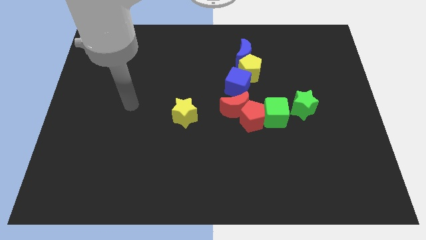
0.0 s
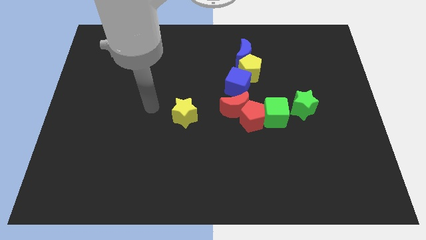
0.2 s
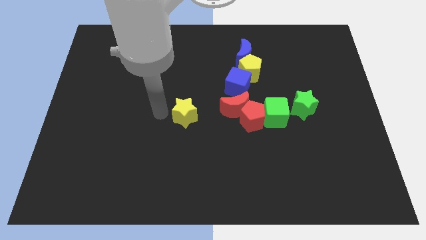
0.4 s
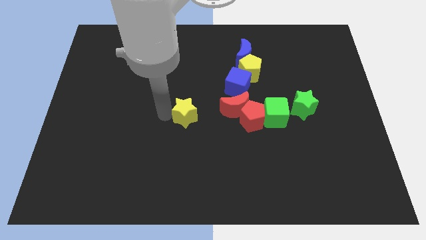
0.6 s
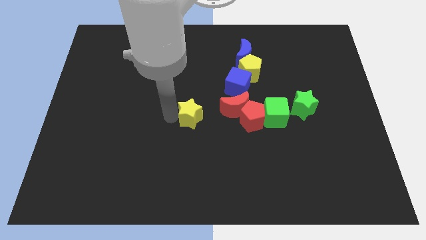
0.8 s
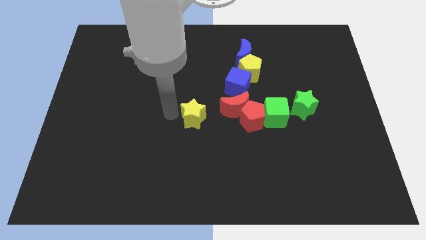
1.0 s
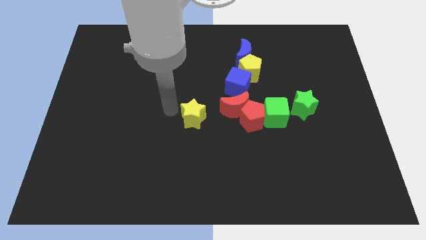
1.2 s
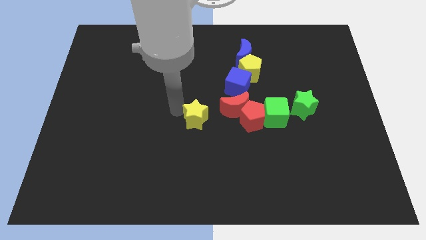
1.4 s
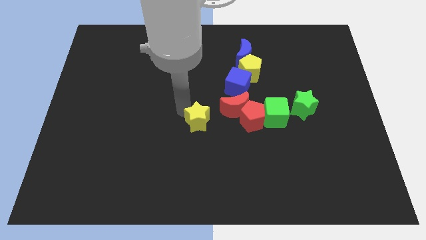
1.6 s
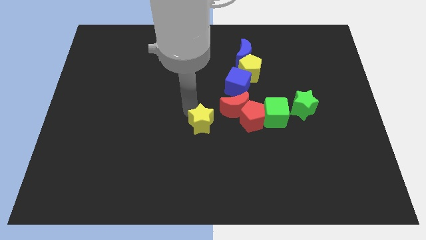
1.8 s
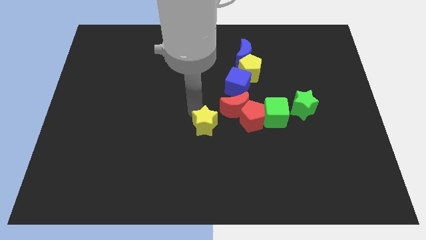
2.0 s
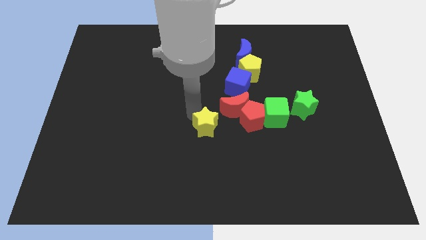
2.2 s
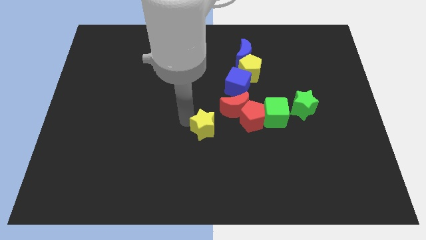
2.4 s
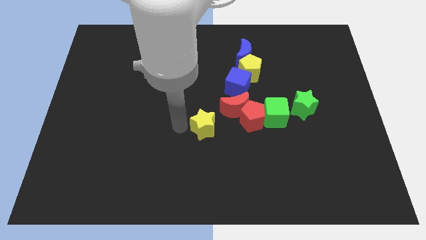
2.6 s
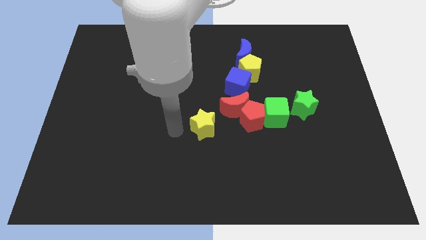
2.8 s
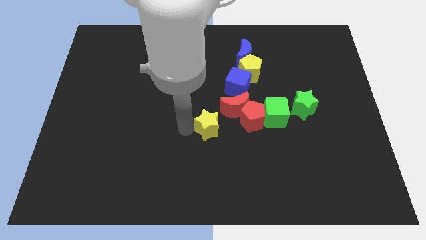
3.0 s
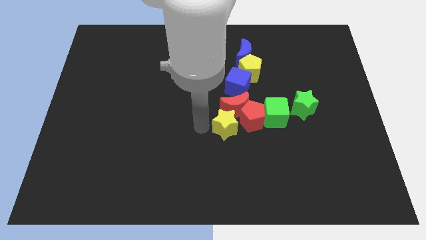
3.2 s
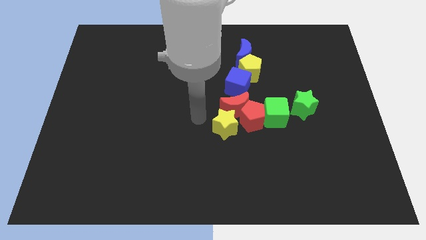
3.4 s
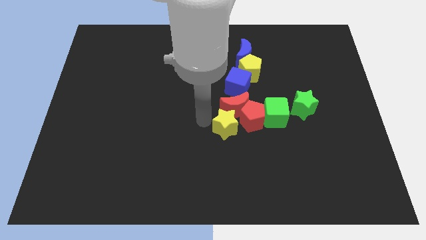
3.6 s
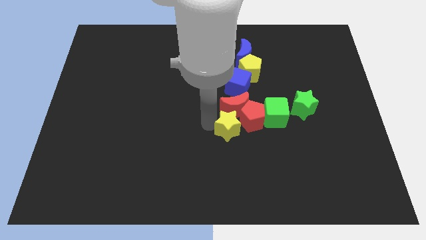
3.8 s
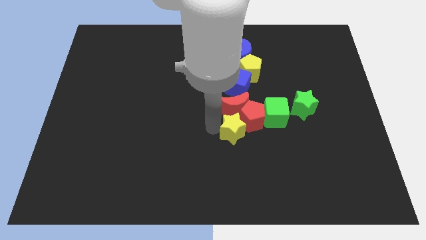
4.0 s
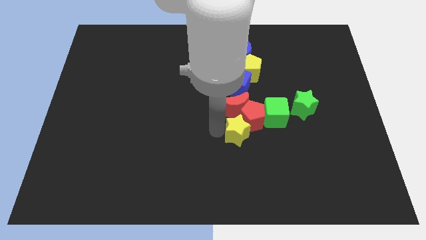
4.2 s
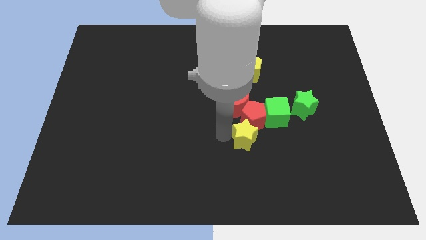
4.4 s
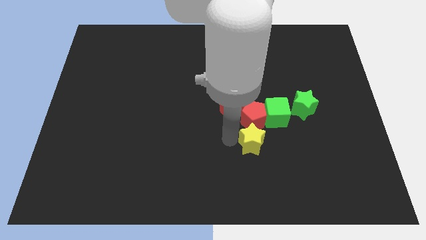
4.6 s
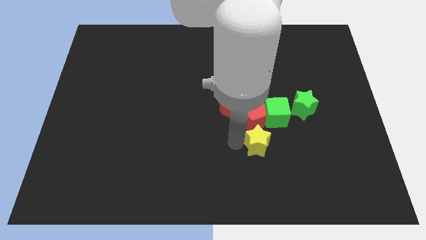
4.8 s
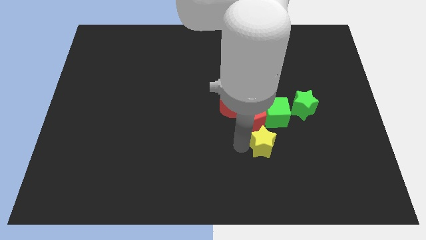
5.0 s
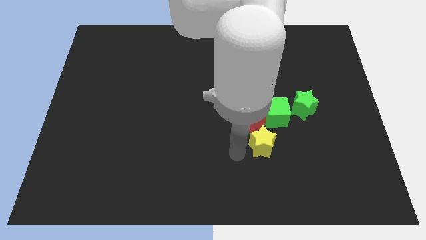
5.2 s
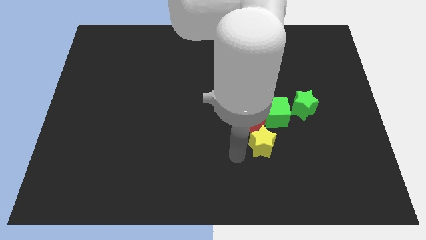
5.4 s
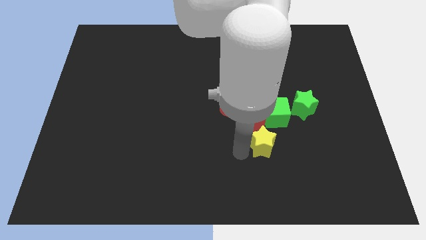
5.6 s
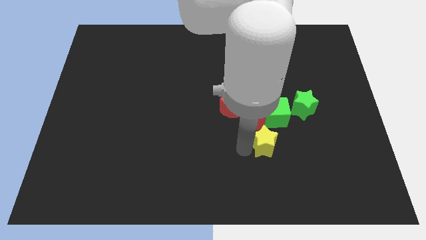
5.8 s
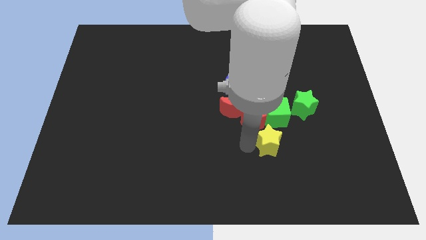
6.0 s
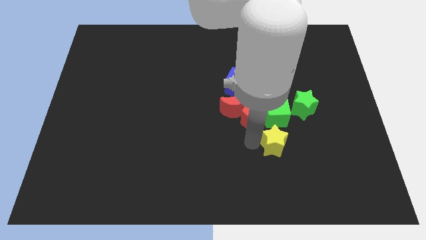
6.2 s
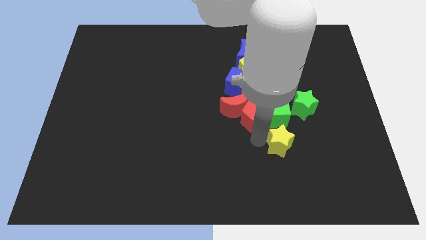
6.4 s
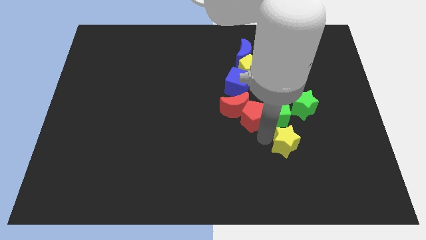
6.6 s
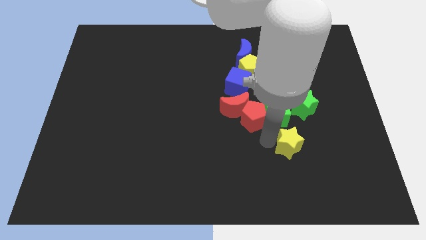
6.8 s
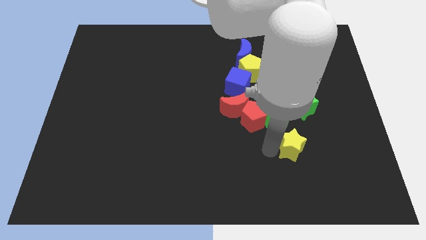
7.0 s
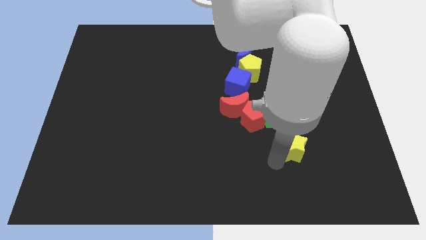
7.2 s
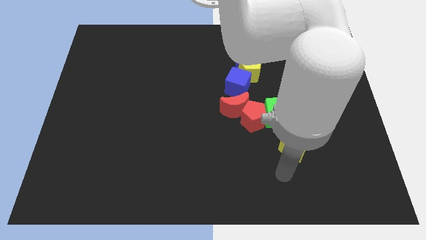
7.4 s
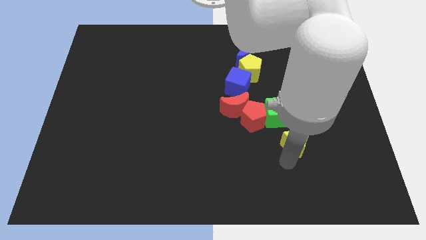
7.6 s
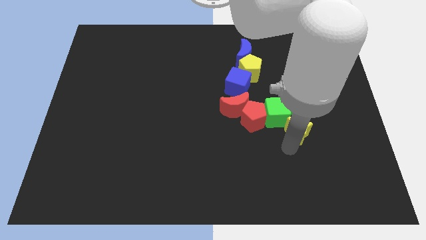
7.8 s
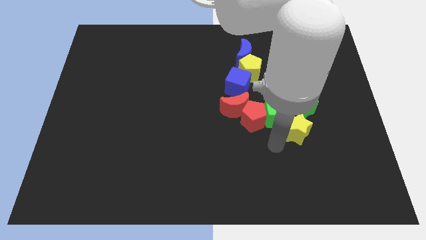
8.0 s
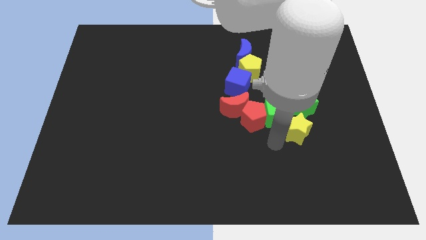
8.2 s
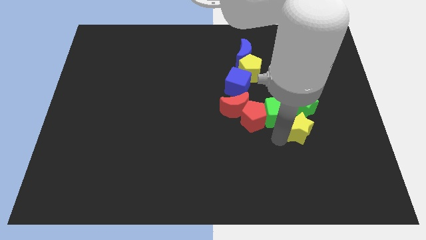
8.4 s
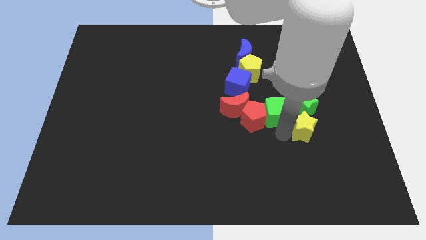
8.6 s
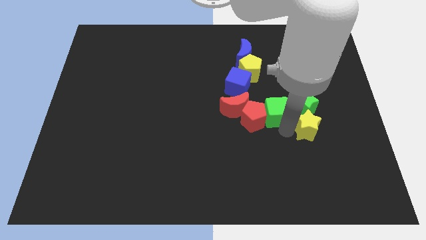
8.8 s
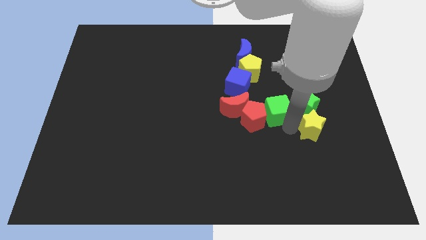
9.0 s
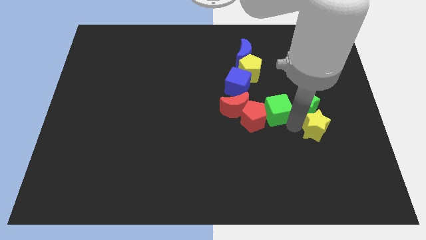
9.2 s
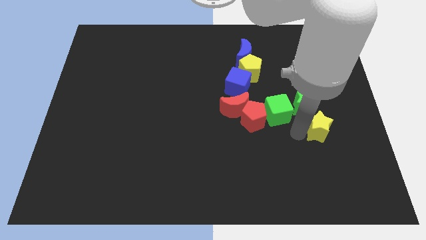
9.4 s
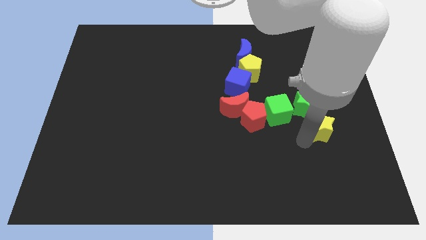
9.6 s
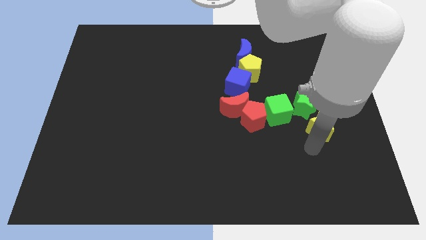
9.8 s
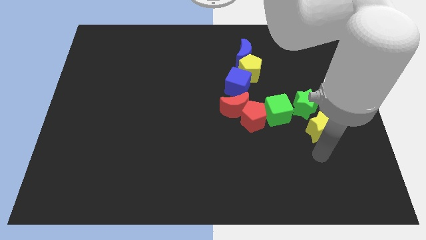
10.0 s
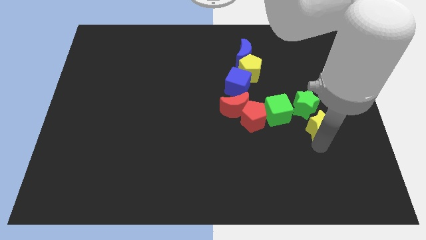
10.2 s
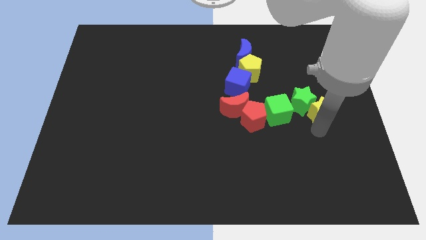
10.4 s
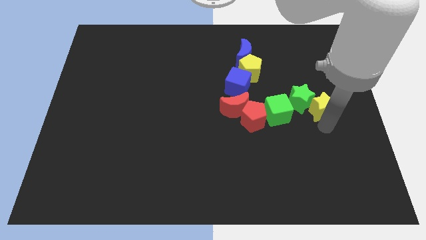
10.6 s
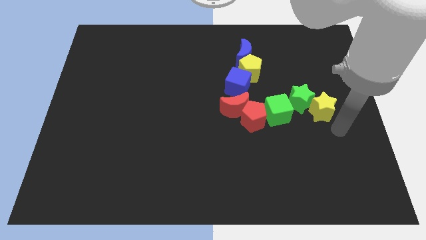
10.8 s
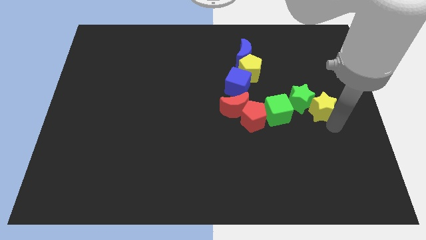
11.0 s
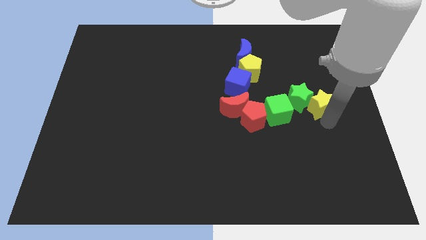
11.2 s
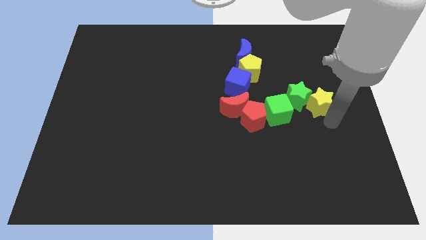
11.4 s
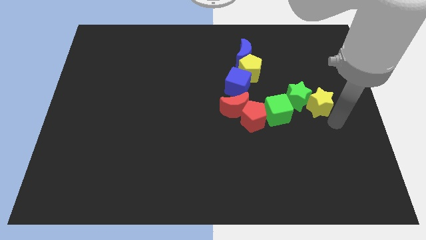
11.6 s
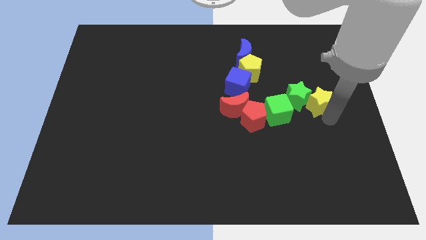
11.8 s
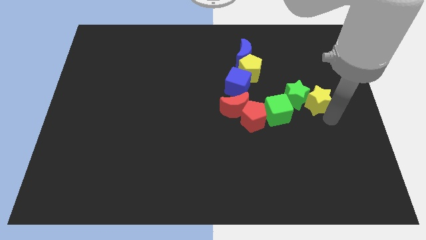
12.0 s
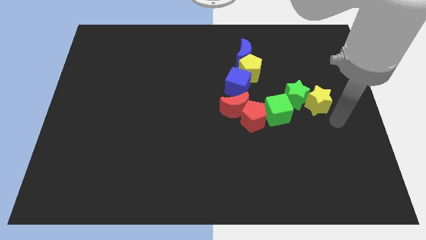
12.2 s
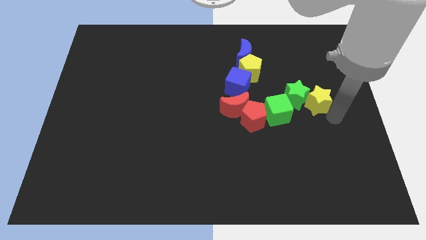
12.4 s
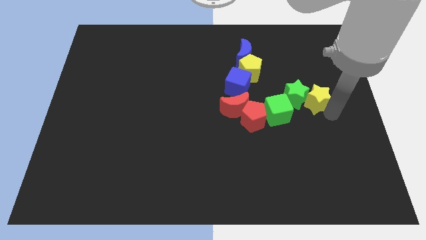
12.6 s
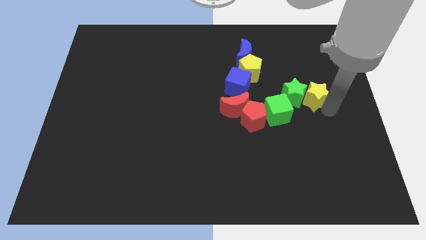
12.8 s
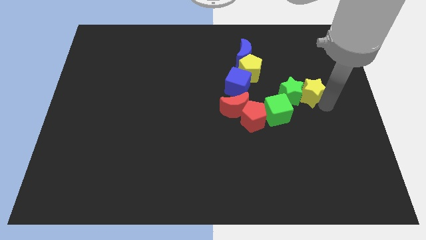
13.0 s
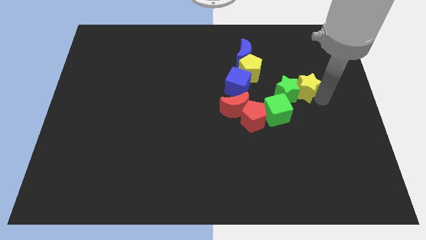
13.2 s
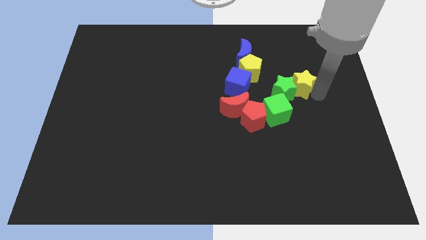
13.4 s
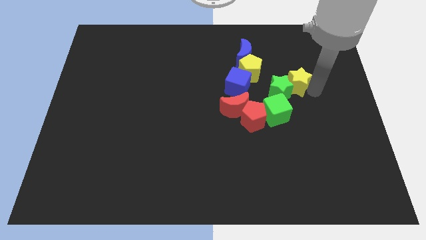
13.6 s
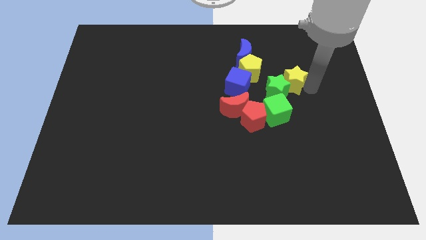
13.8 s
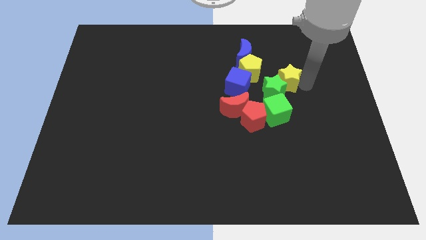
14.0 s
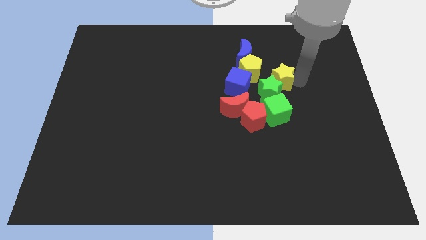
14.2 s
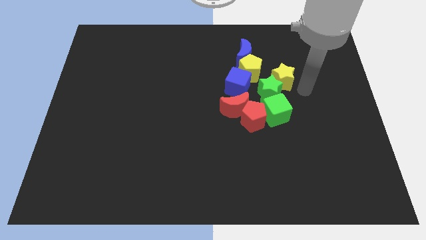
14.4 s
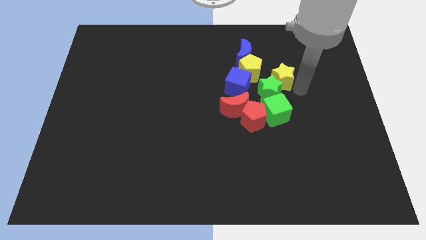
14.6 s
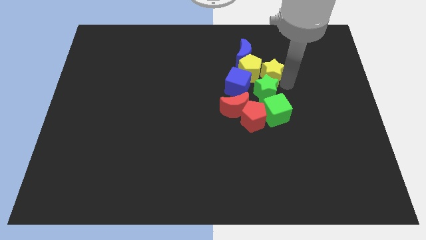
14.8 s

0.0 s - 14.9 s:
push the yellow star to the top right of the blue cube
